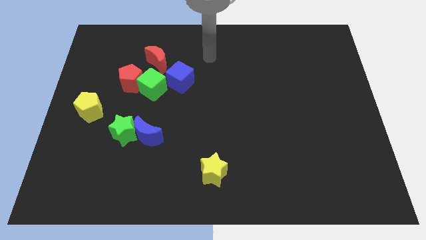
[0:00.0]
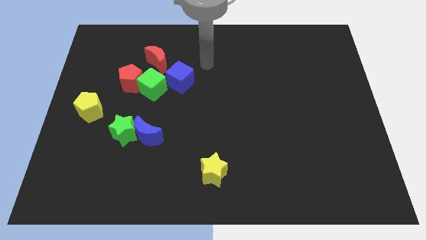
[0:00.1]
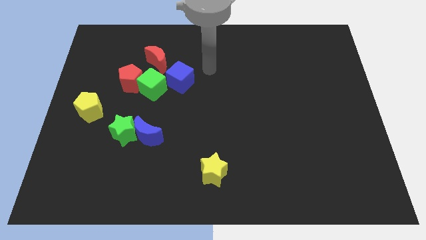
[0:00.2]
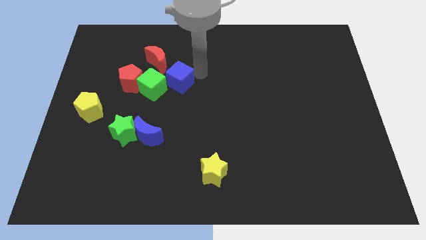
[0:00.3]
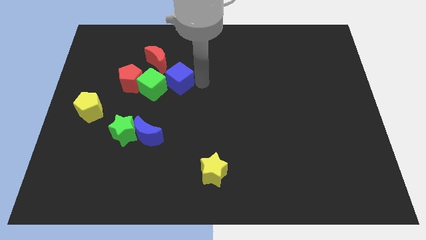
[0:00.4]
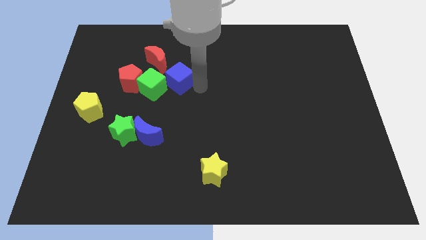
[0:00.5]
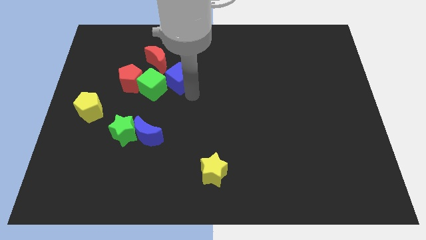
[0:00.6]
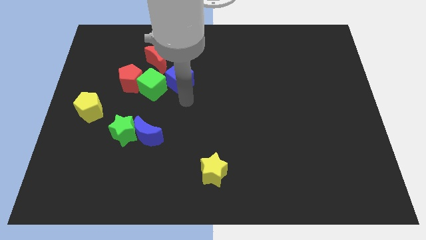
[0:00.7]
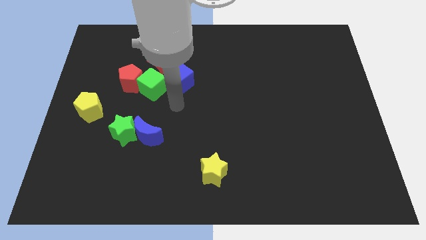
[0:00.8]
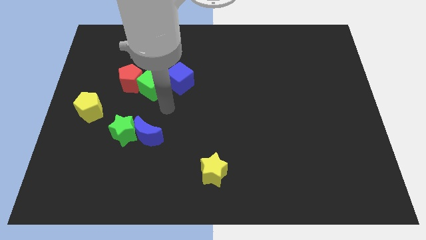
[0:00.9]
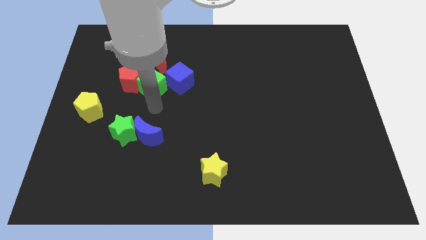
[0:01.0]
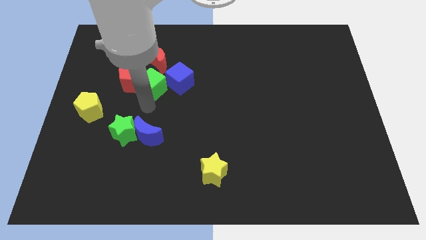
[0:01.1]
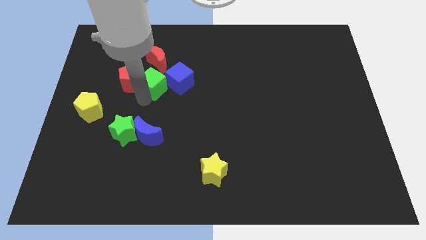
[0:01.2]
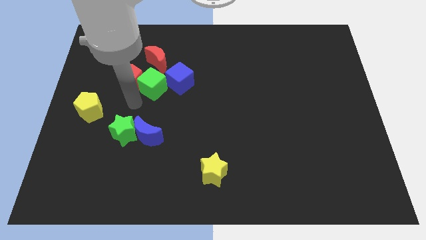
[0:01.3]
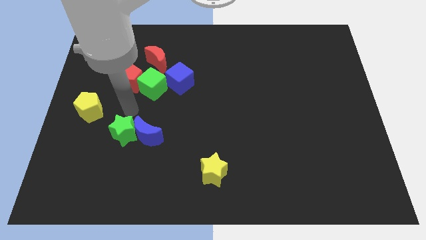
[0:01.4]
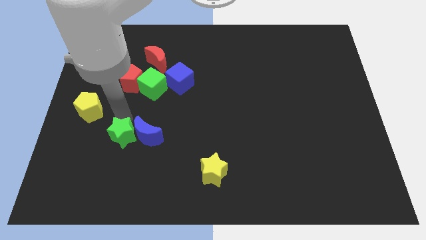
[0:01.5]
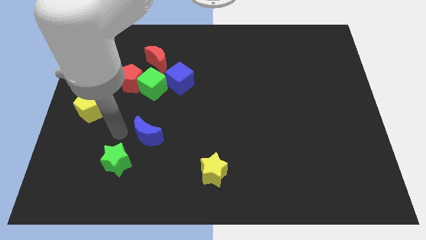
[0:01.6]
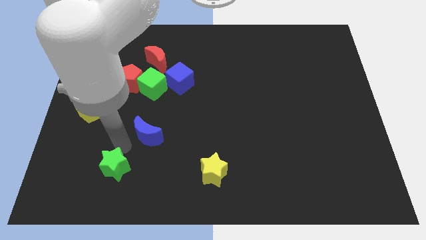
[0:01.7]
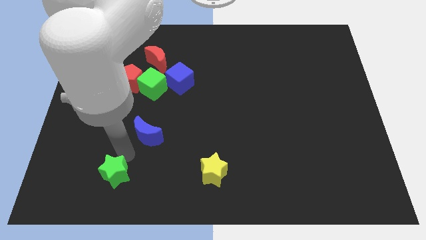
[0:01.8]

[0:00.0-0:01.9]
separate the blue moon from the green star

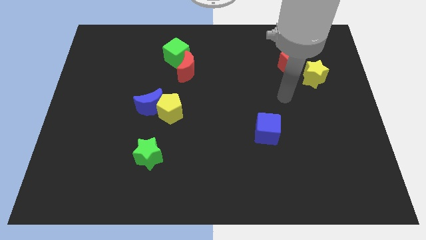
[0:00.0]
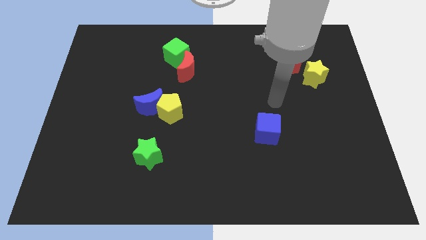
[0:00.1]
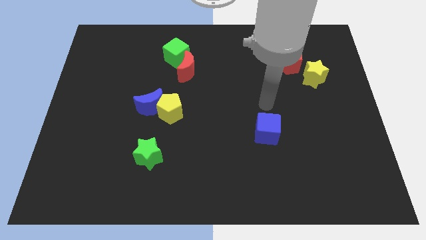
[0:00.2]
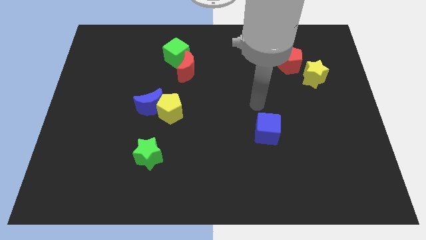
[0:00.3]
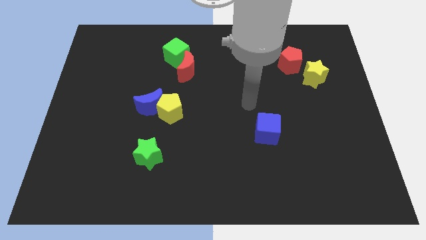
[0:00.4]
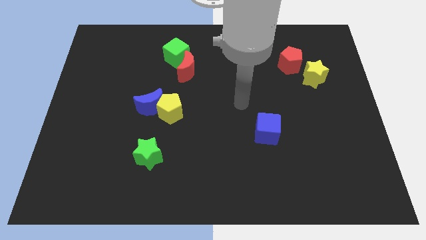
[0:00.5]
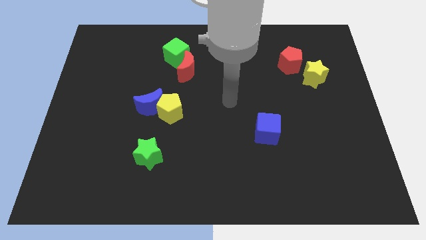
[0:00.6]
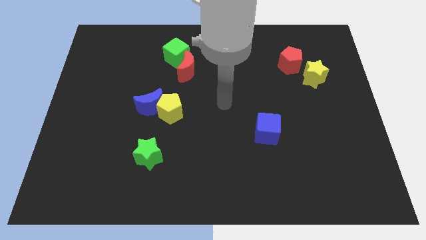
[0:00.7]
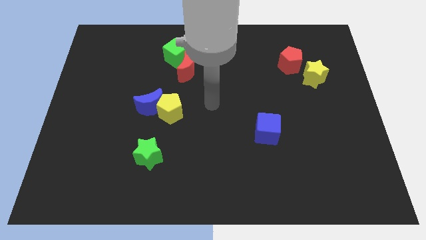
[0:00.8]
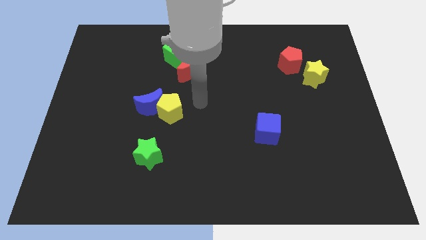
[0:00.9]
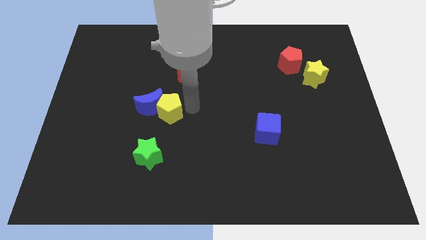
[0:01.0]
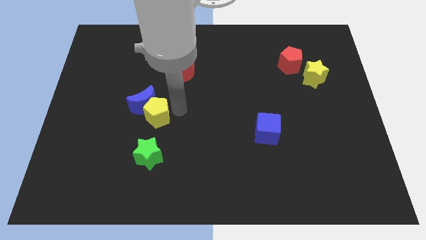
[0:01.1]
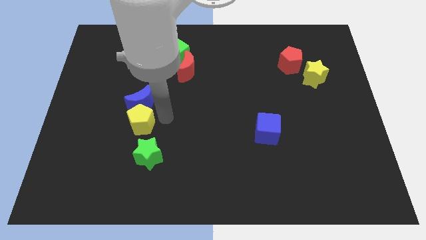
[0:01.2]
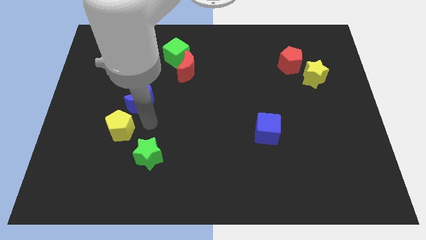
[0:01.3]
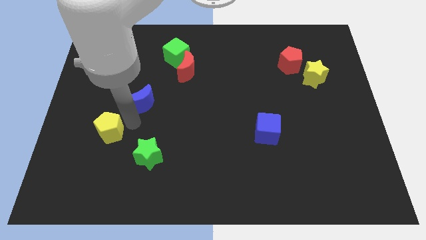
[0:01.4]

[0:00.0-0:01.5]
pull the blue moon apart from the yellow pentagon

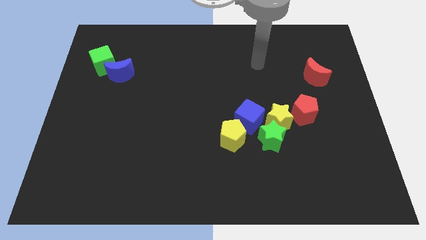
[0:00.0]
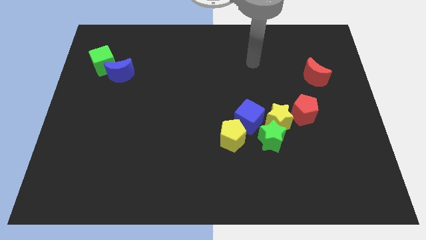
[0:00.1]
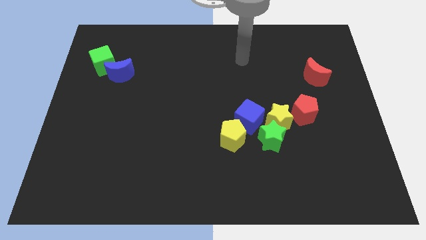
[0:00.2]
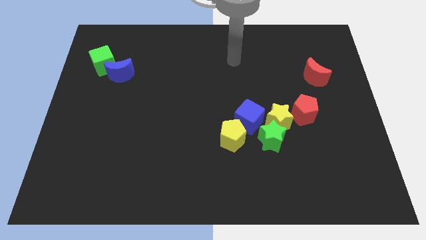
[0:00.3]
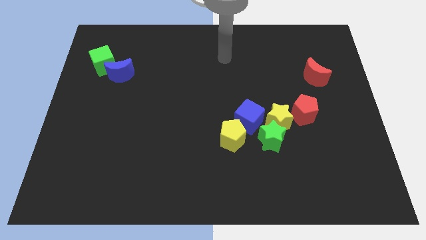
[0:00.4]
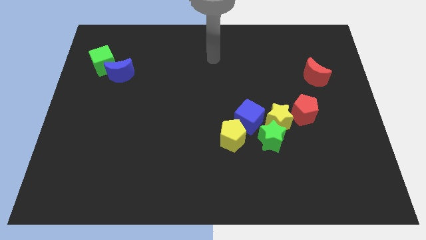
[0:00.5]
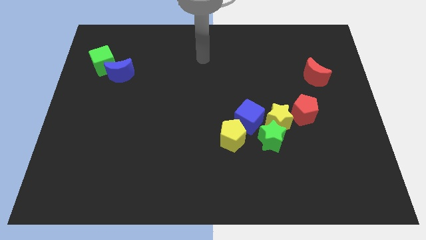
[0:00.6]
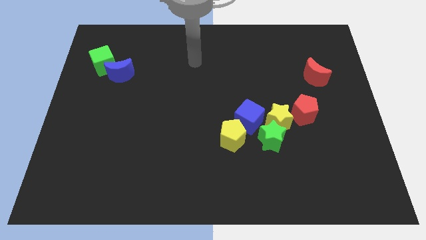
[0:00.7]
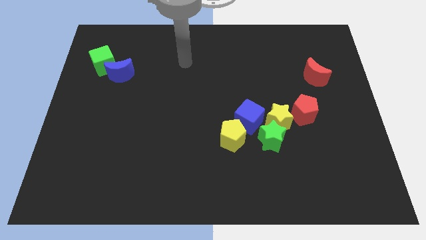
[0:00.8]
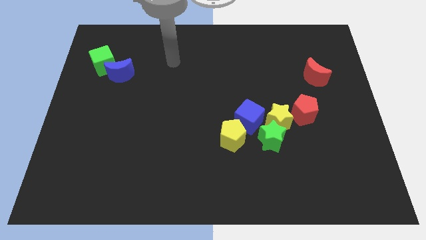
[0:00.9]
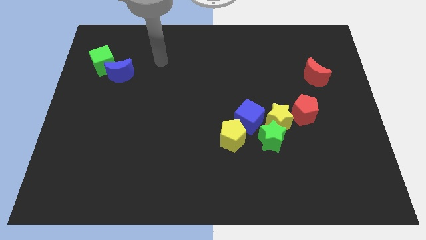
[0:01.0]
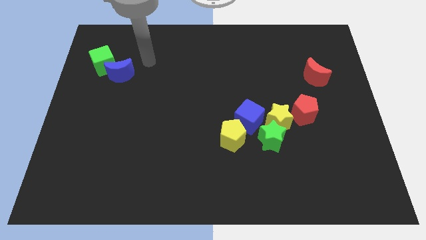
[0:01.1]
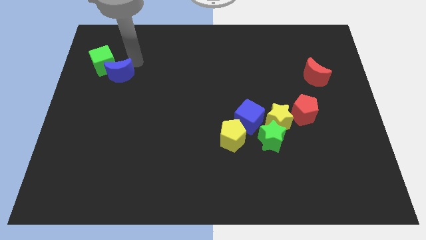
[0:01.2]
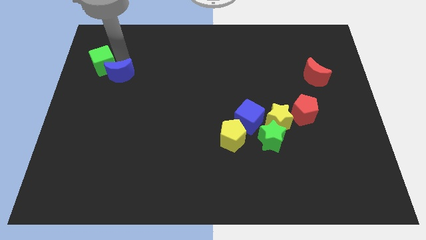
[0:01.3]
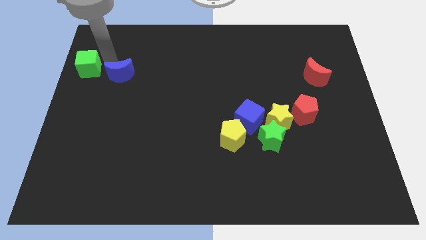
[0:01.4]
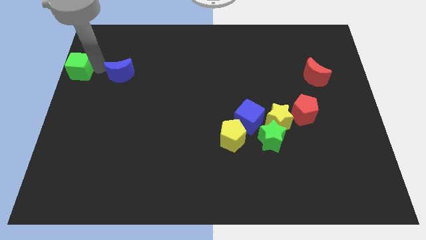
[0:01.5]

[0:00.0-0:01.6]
pull the blue moon apart from the green cube

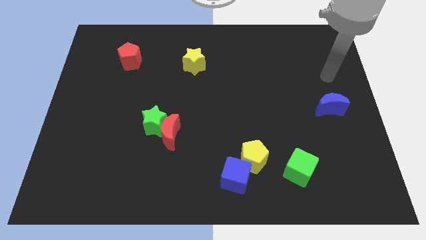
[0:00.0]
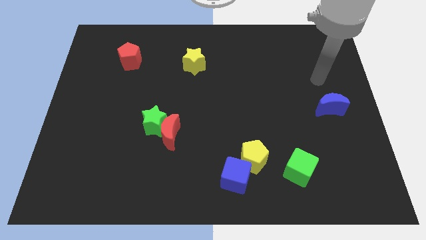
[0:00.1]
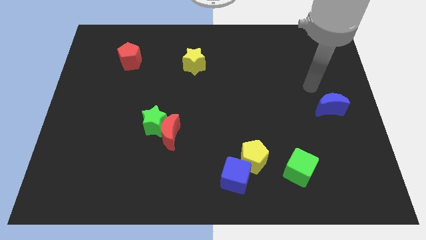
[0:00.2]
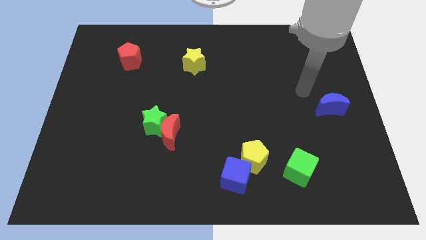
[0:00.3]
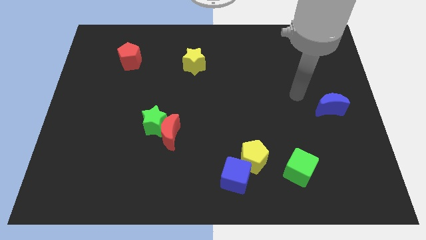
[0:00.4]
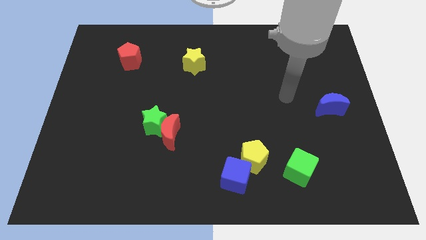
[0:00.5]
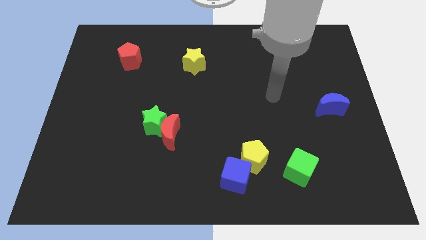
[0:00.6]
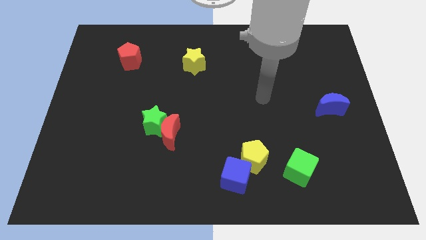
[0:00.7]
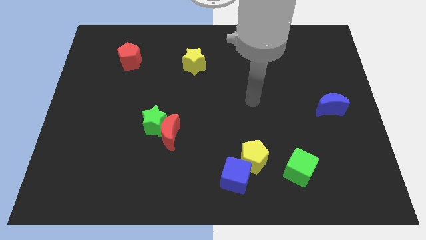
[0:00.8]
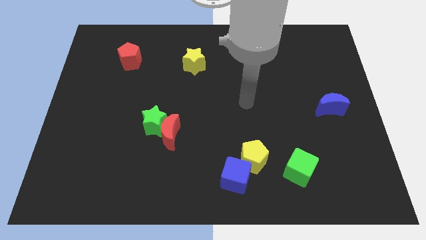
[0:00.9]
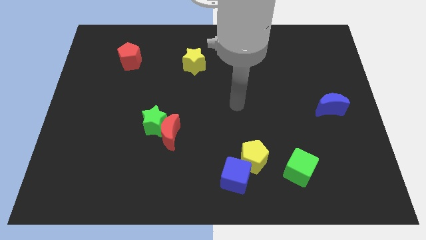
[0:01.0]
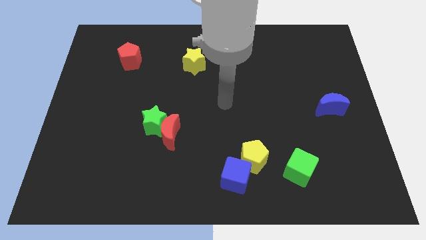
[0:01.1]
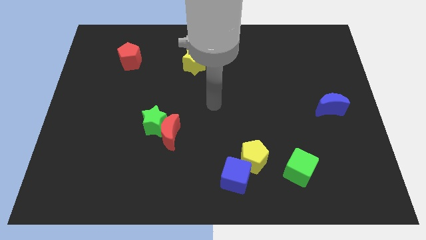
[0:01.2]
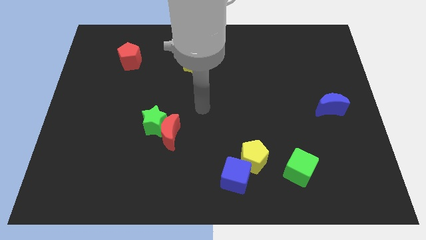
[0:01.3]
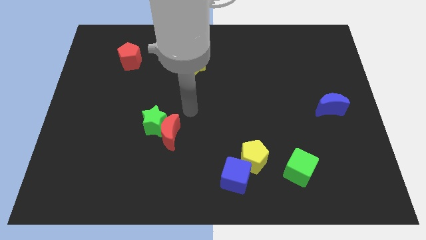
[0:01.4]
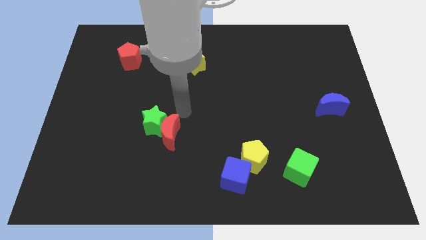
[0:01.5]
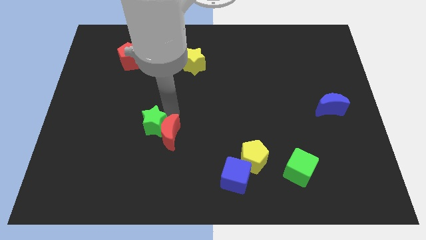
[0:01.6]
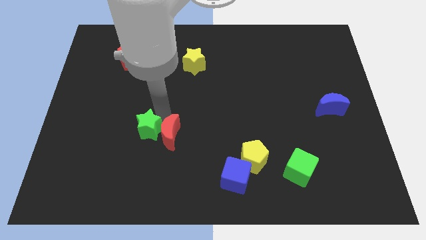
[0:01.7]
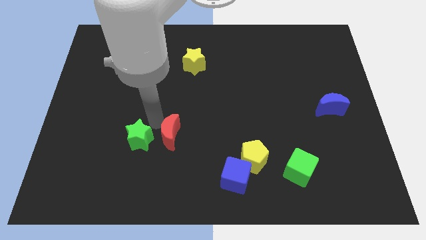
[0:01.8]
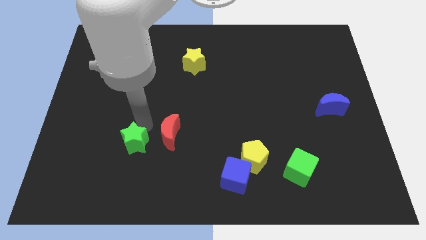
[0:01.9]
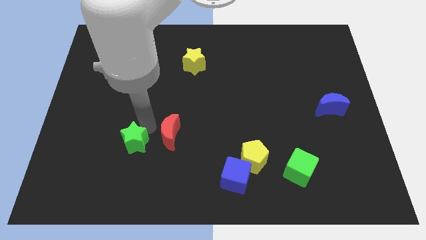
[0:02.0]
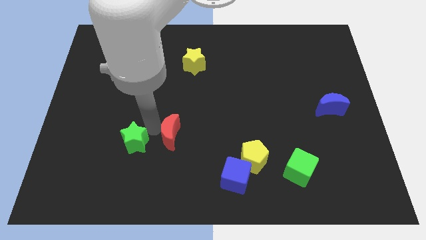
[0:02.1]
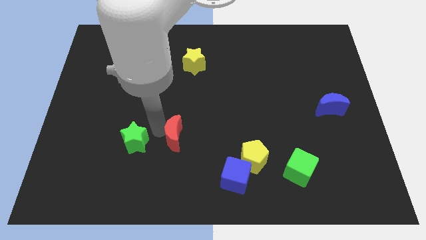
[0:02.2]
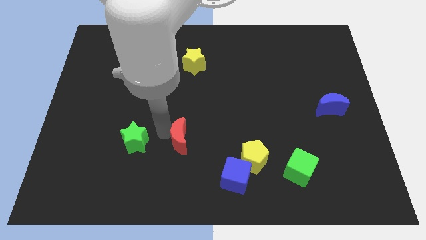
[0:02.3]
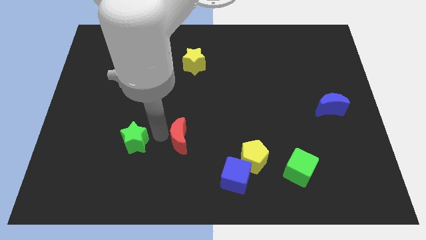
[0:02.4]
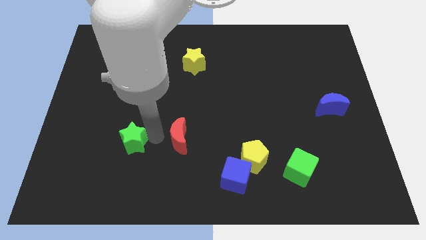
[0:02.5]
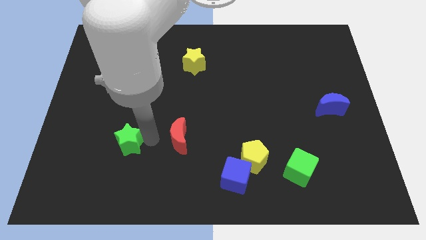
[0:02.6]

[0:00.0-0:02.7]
separate the red moon from the green star

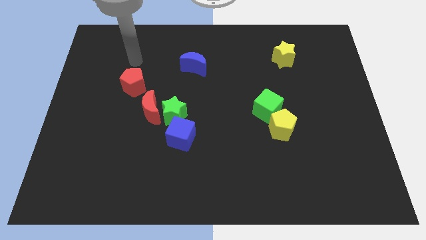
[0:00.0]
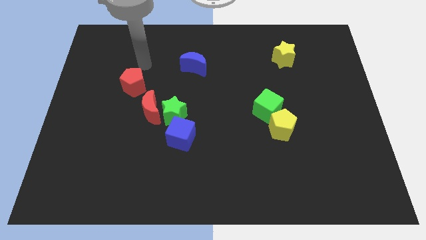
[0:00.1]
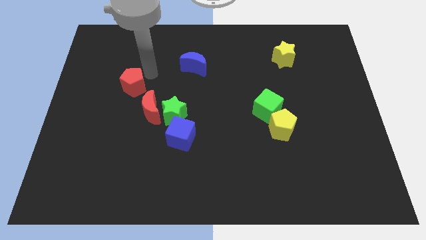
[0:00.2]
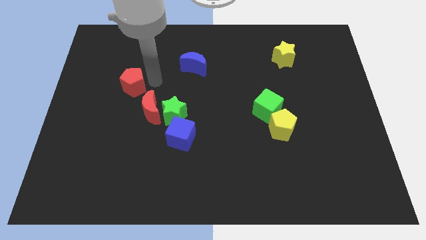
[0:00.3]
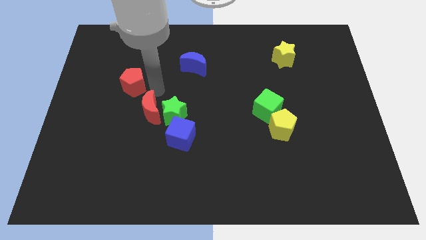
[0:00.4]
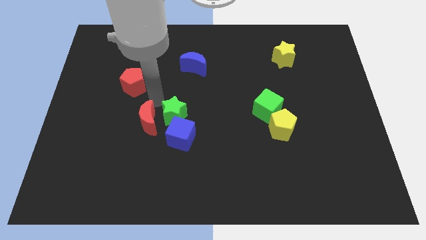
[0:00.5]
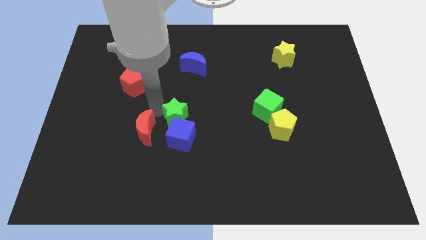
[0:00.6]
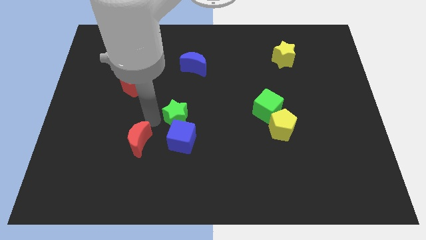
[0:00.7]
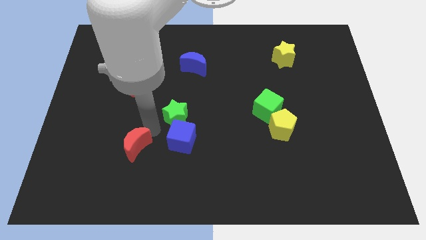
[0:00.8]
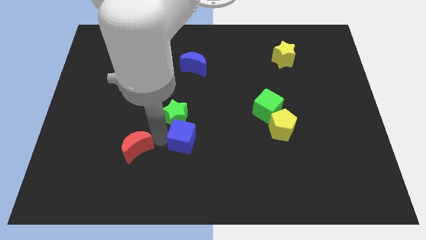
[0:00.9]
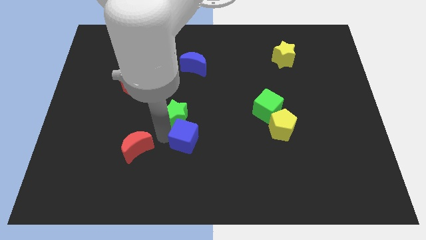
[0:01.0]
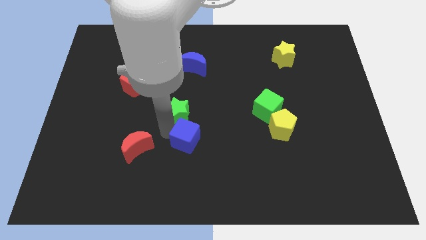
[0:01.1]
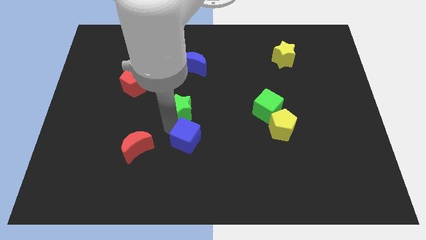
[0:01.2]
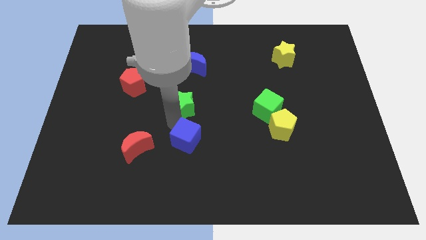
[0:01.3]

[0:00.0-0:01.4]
pull the green star apart from the red moon and blue cube
